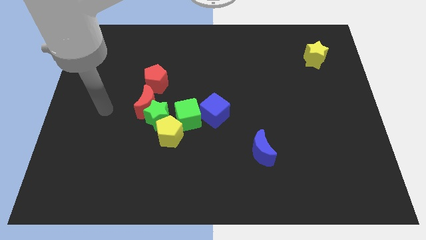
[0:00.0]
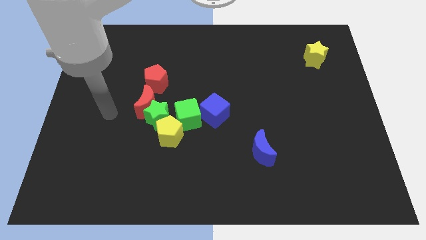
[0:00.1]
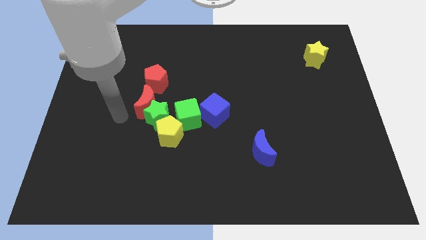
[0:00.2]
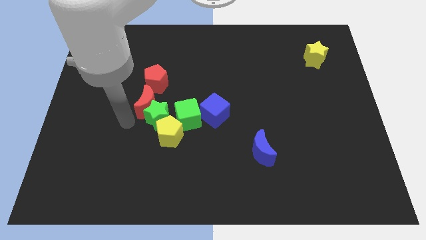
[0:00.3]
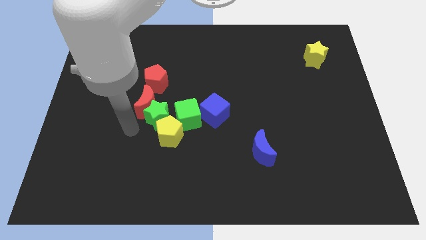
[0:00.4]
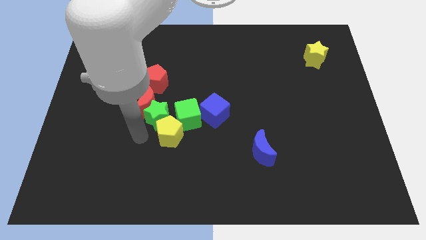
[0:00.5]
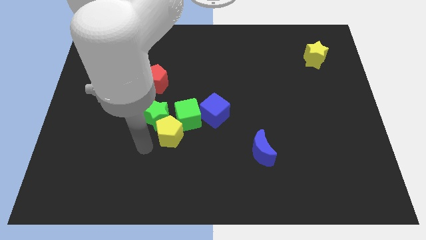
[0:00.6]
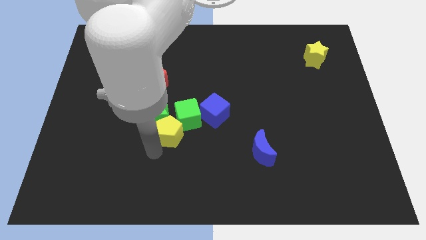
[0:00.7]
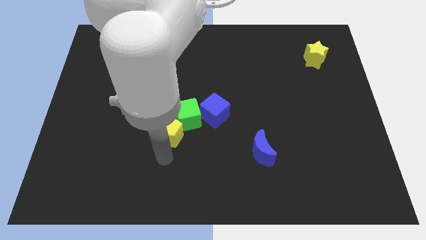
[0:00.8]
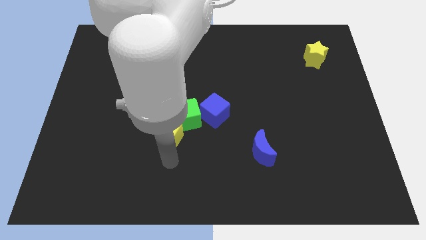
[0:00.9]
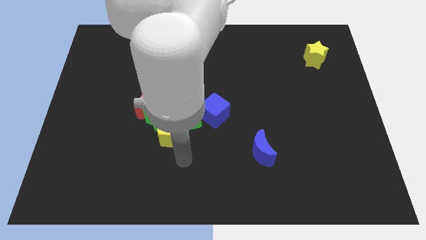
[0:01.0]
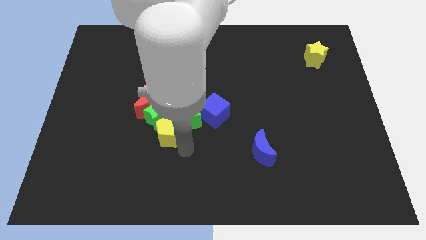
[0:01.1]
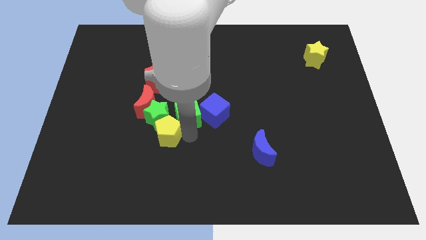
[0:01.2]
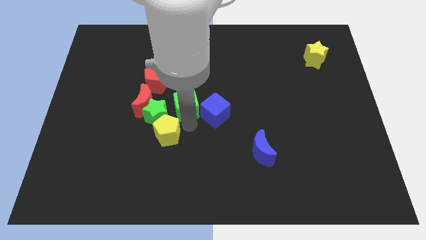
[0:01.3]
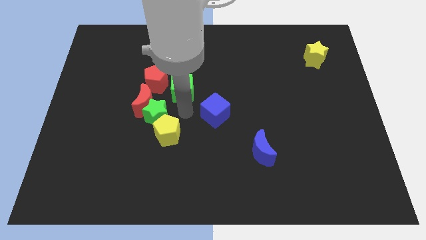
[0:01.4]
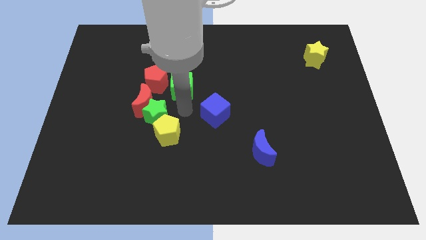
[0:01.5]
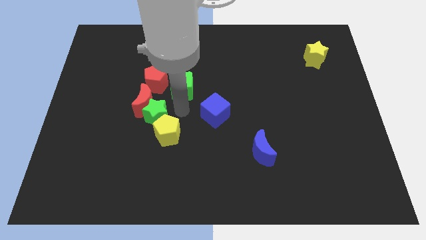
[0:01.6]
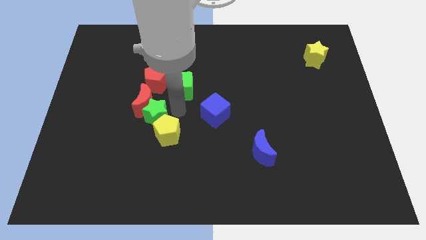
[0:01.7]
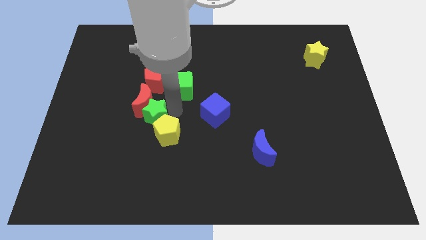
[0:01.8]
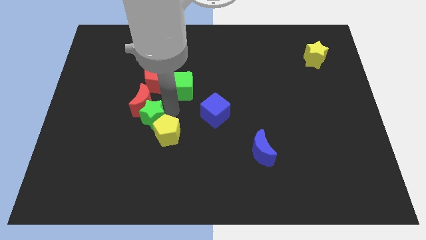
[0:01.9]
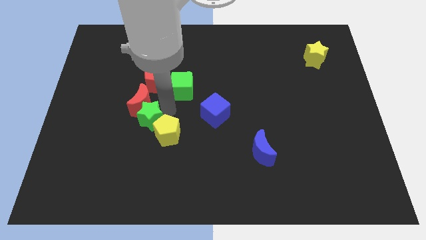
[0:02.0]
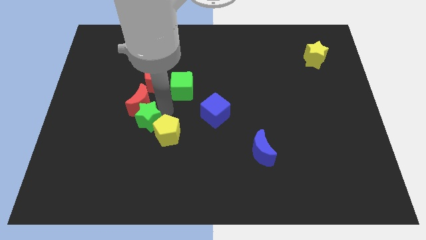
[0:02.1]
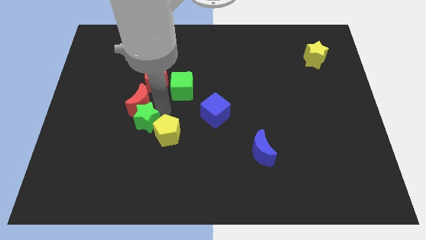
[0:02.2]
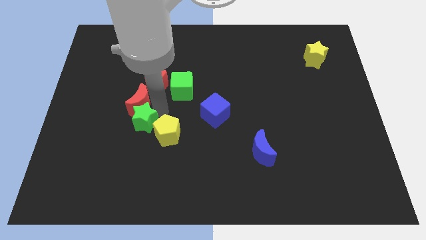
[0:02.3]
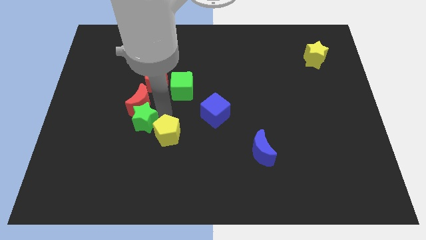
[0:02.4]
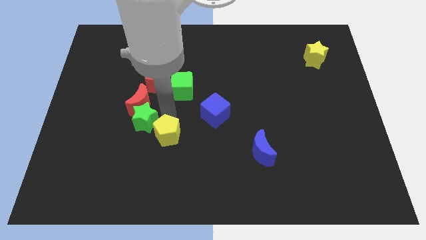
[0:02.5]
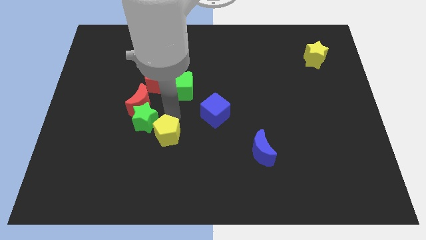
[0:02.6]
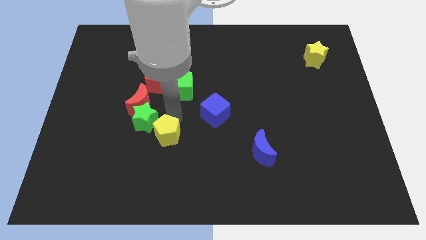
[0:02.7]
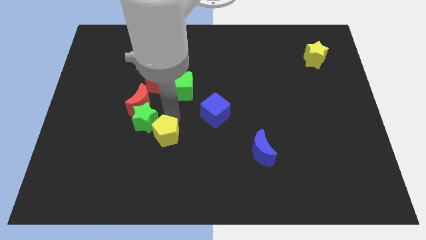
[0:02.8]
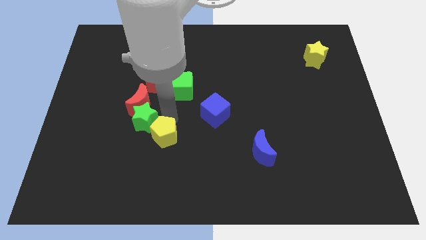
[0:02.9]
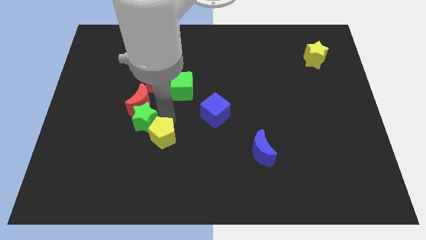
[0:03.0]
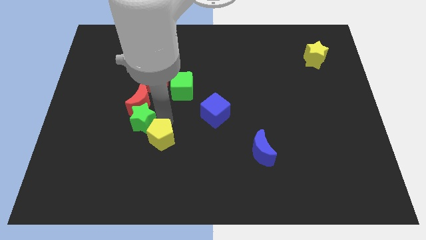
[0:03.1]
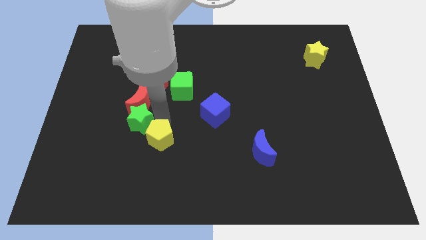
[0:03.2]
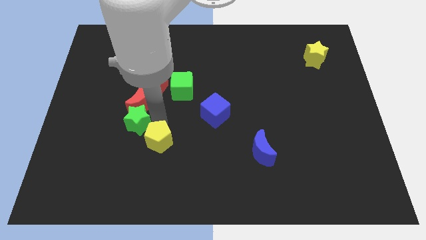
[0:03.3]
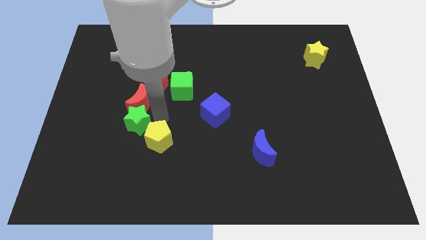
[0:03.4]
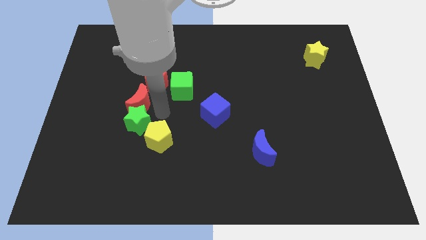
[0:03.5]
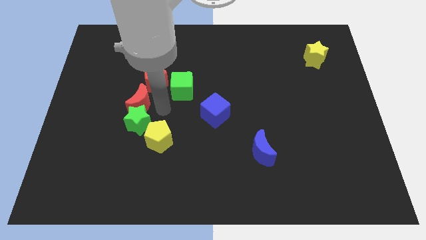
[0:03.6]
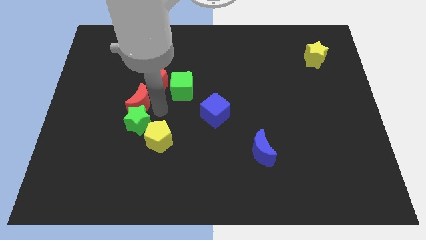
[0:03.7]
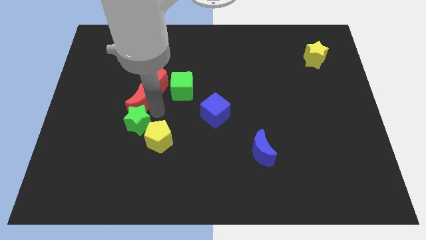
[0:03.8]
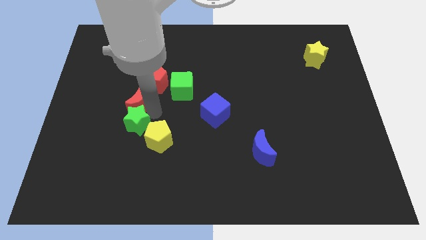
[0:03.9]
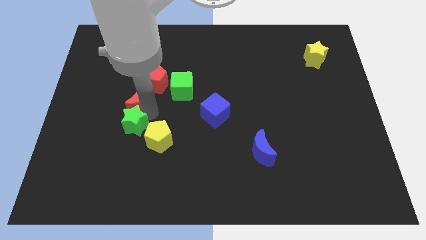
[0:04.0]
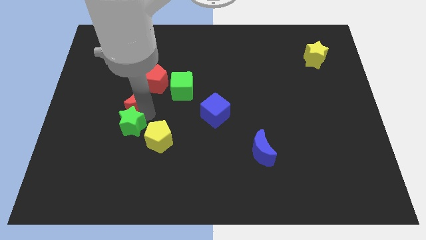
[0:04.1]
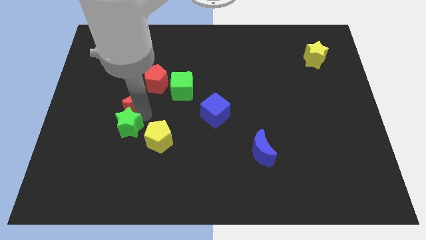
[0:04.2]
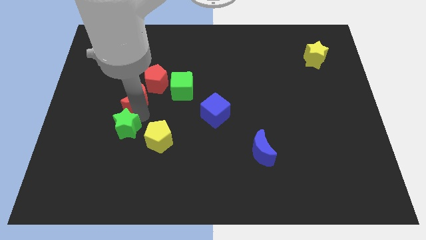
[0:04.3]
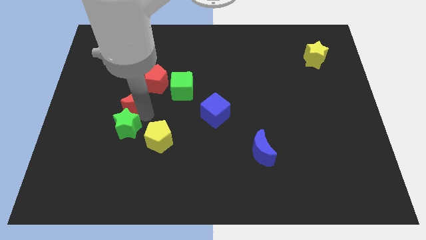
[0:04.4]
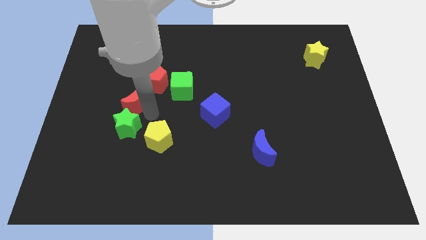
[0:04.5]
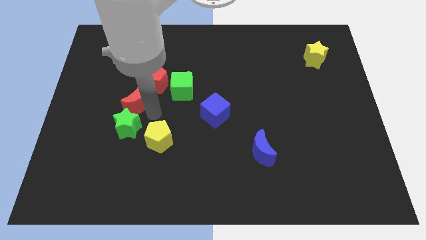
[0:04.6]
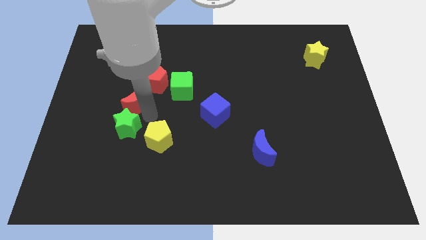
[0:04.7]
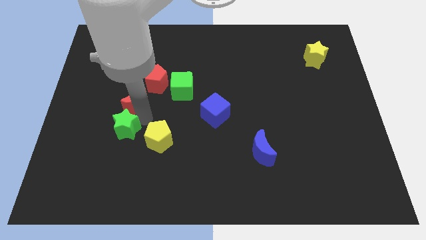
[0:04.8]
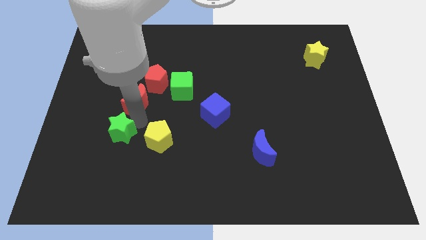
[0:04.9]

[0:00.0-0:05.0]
move the green star away from the clump

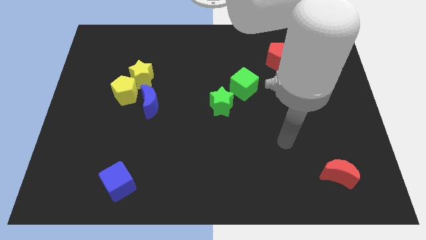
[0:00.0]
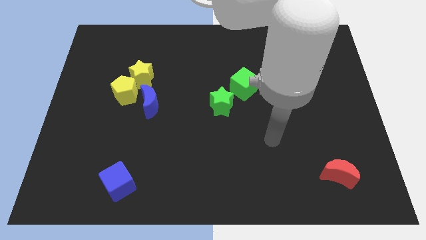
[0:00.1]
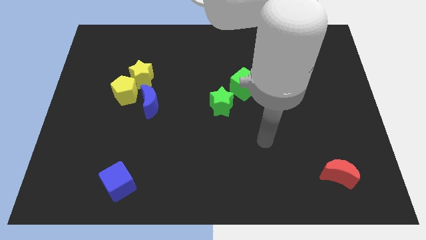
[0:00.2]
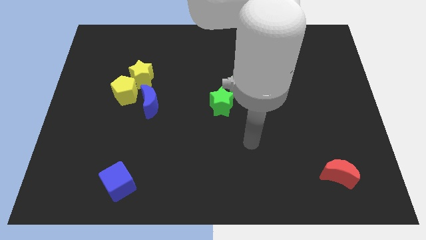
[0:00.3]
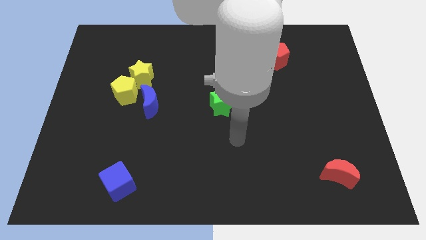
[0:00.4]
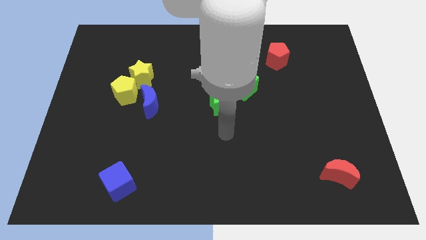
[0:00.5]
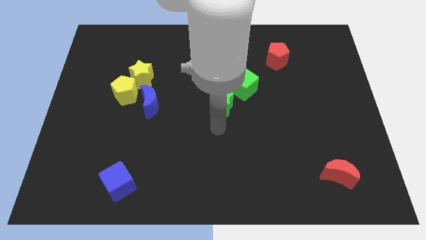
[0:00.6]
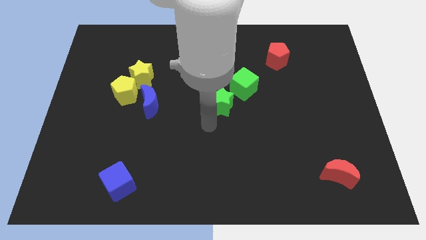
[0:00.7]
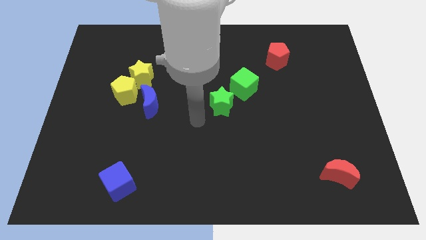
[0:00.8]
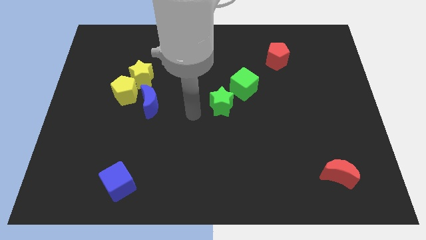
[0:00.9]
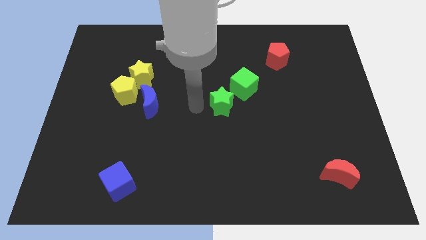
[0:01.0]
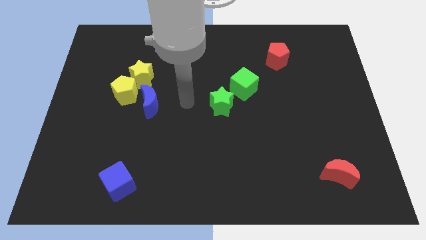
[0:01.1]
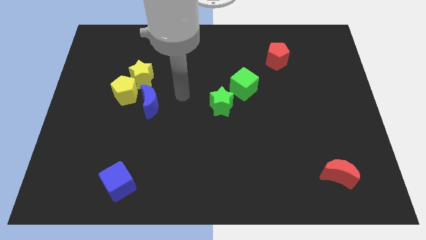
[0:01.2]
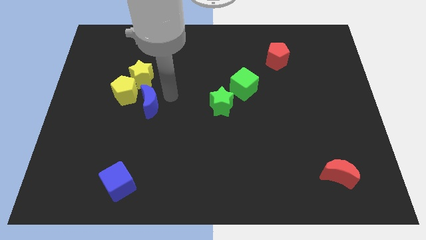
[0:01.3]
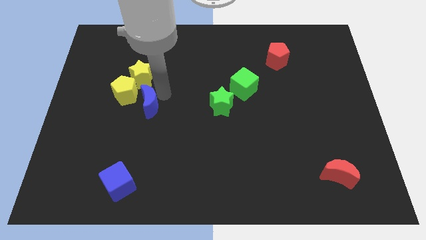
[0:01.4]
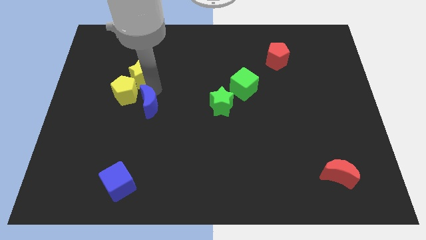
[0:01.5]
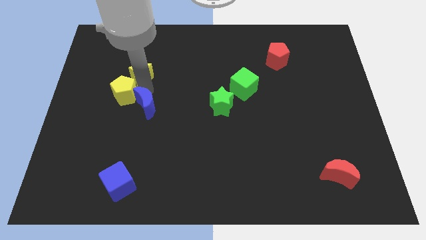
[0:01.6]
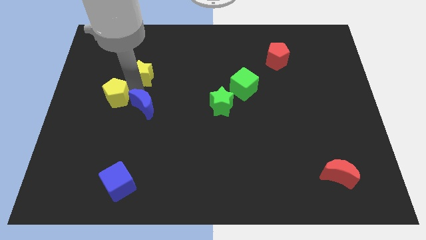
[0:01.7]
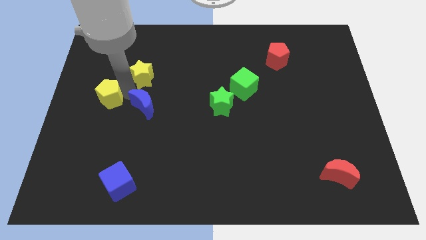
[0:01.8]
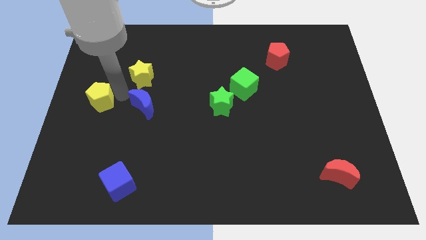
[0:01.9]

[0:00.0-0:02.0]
separate the yellow pentagon from the yellow star and blue moon

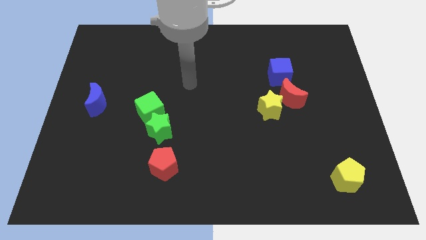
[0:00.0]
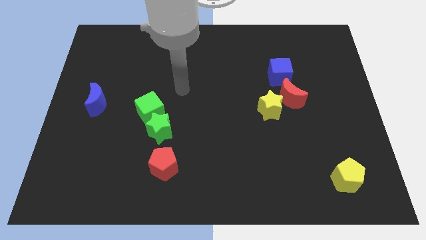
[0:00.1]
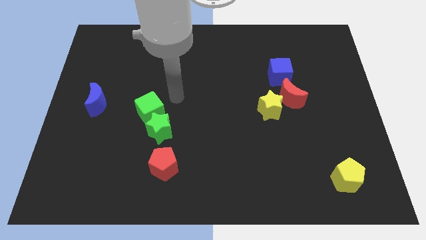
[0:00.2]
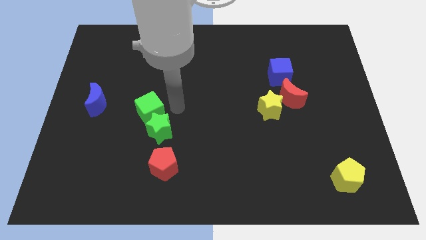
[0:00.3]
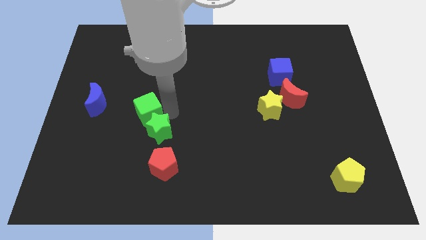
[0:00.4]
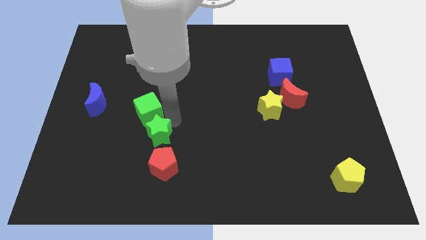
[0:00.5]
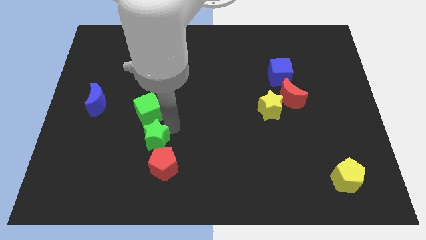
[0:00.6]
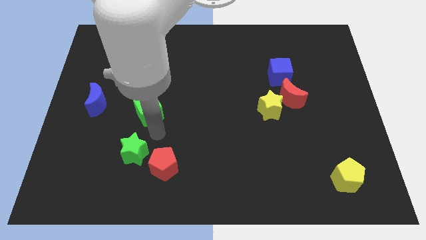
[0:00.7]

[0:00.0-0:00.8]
separate the green cube from the green star

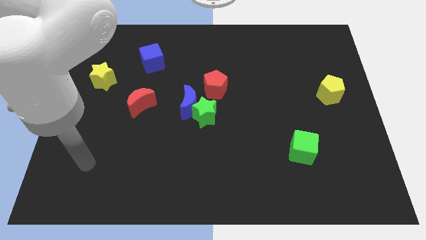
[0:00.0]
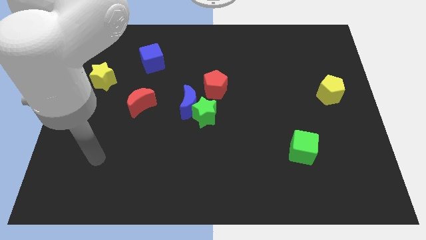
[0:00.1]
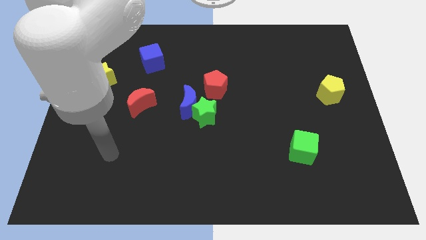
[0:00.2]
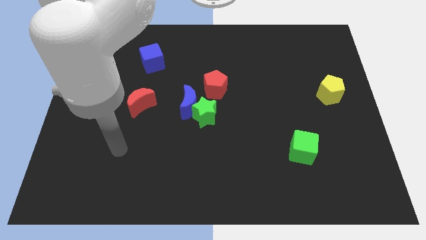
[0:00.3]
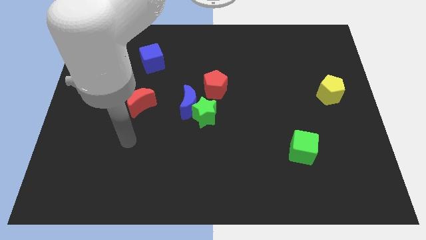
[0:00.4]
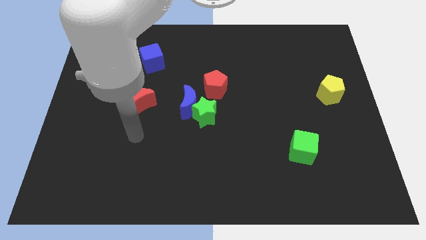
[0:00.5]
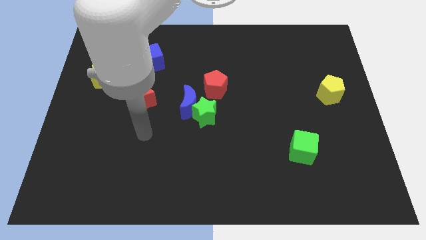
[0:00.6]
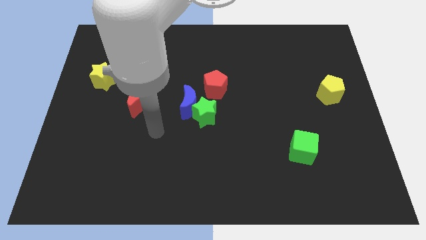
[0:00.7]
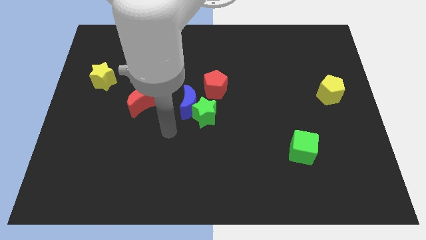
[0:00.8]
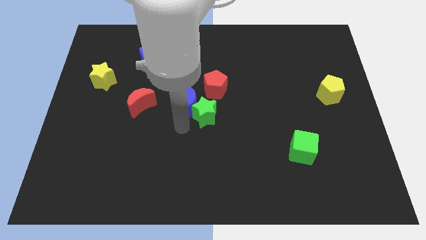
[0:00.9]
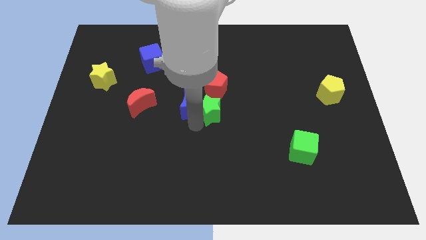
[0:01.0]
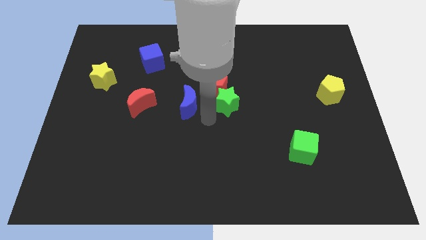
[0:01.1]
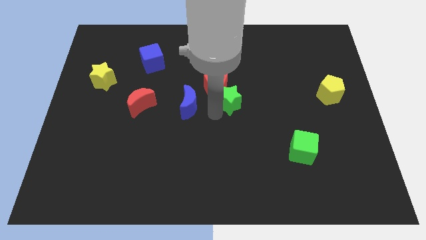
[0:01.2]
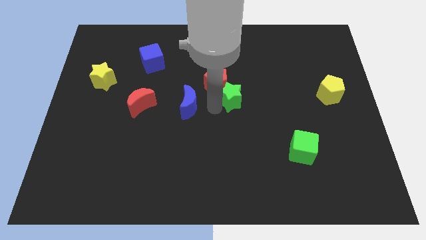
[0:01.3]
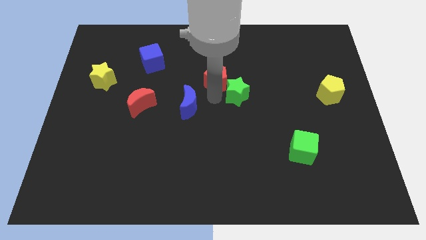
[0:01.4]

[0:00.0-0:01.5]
pull the blue moon apart from the green star and red pentagon
